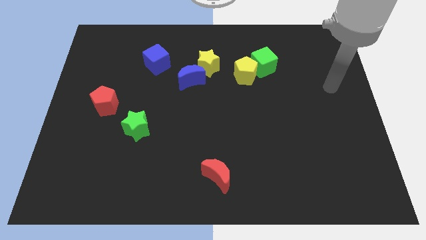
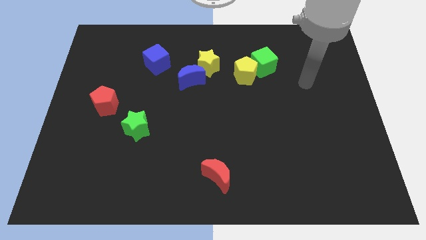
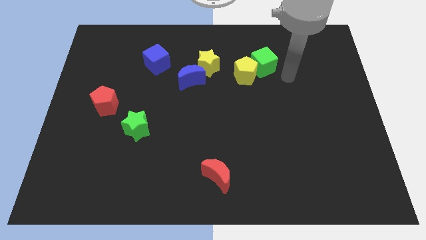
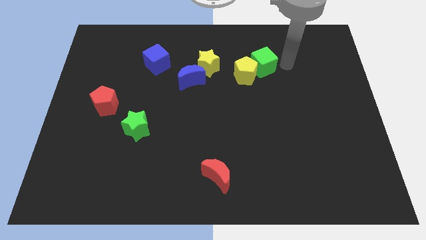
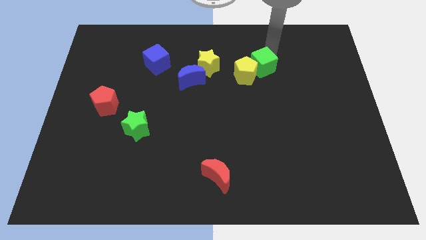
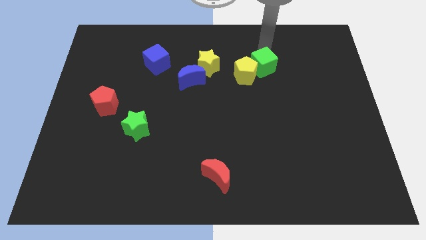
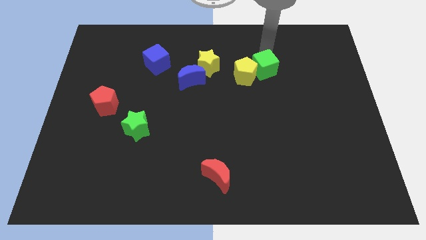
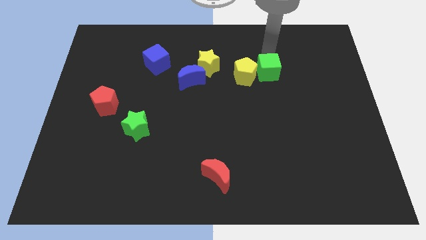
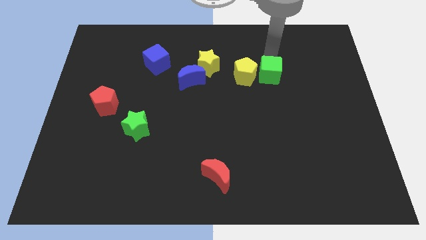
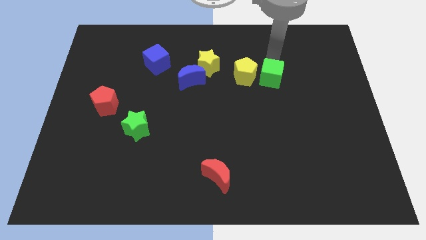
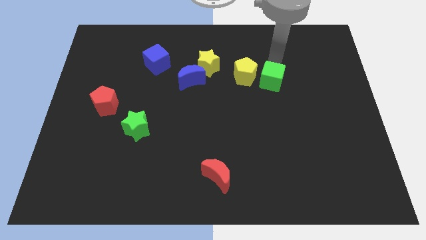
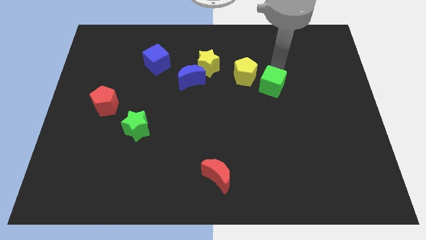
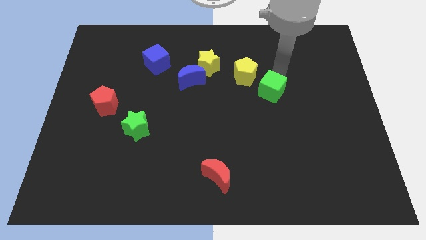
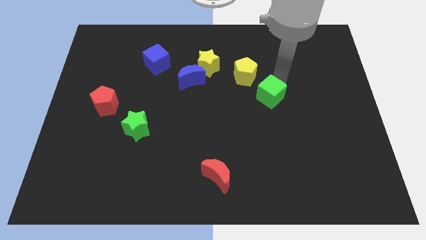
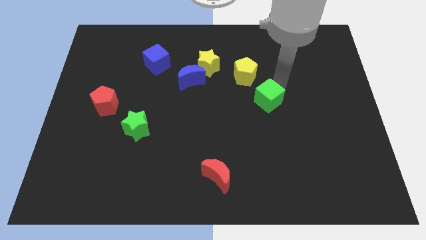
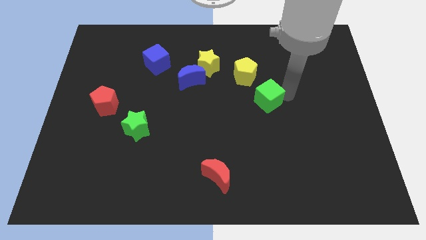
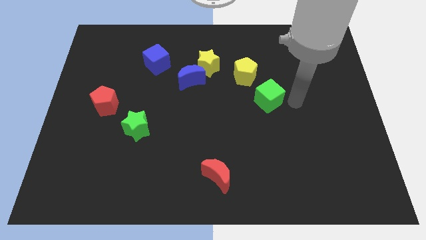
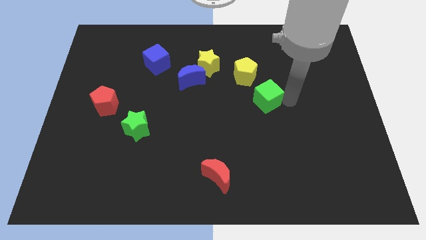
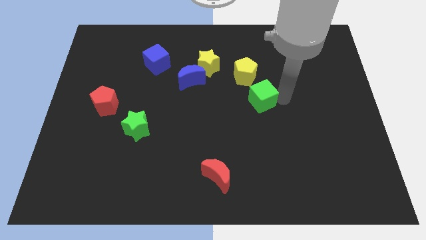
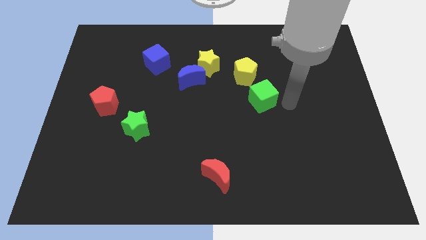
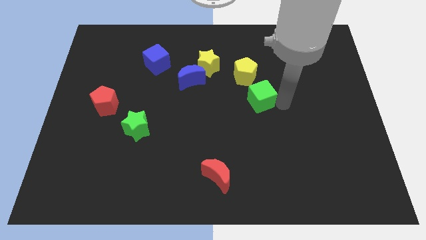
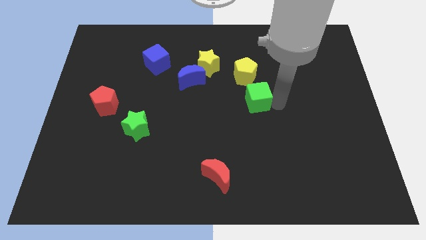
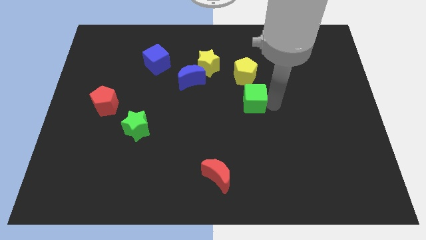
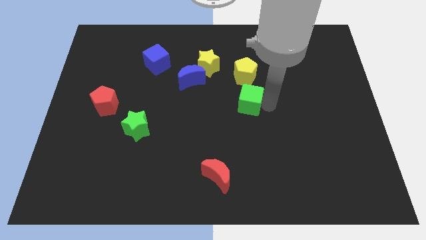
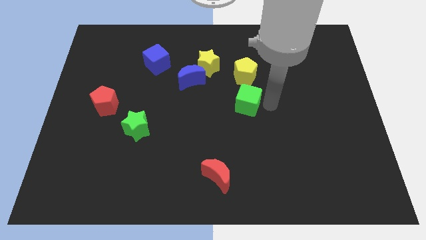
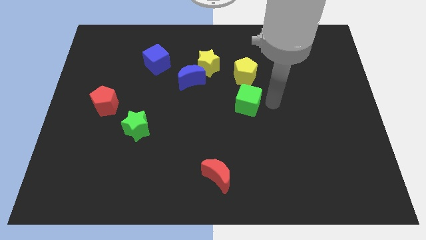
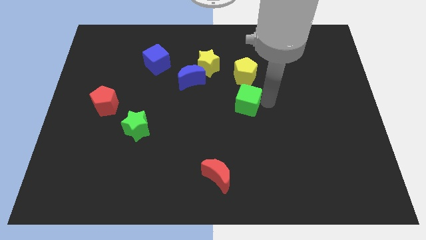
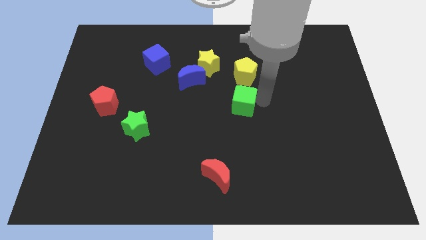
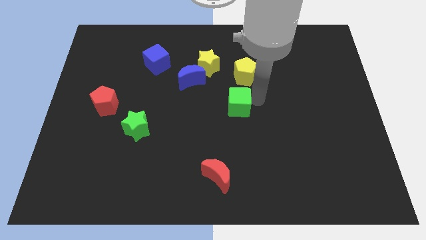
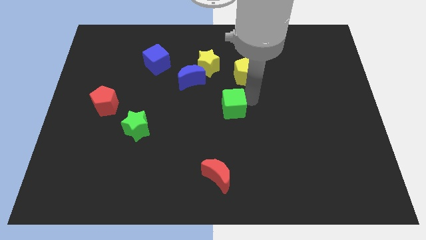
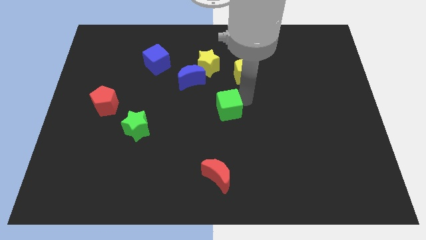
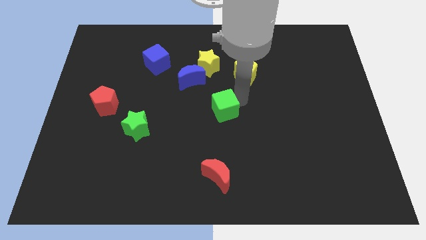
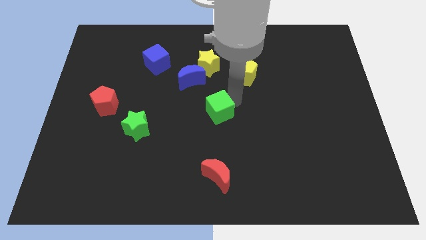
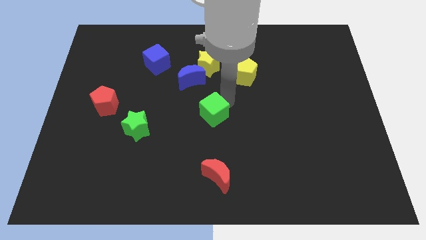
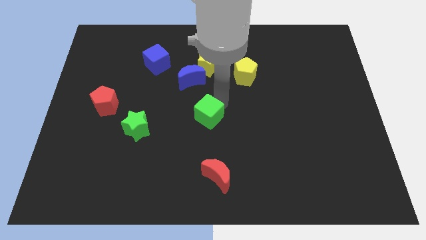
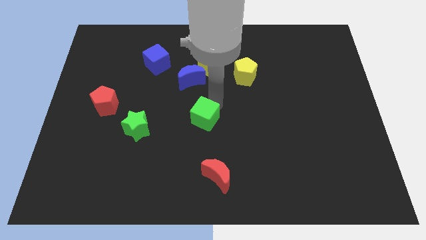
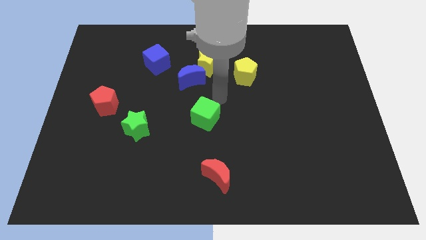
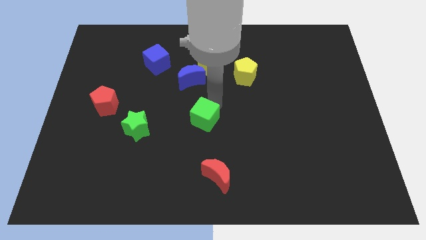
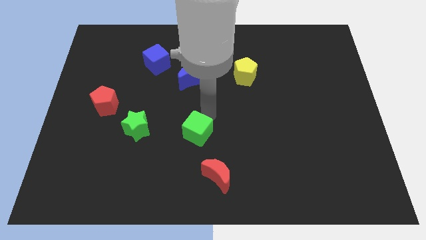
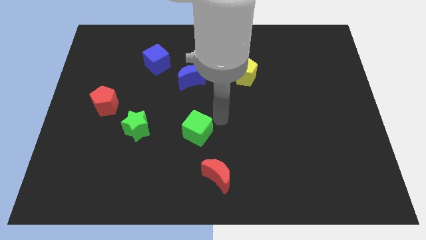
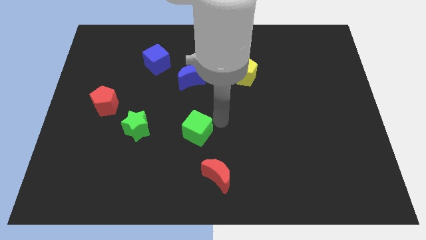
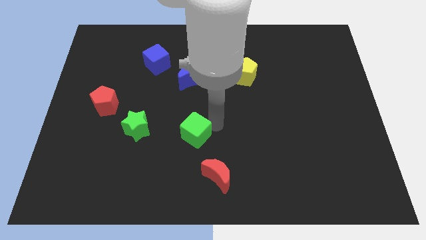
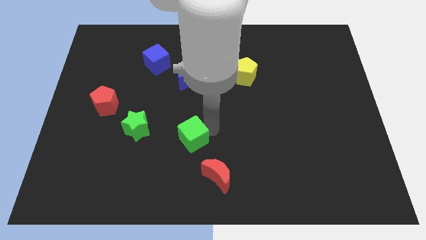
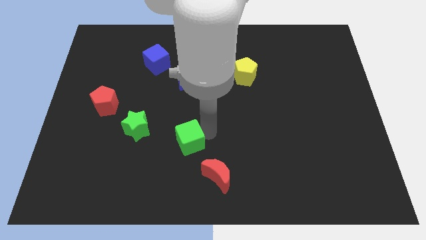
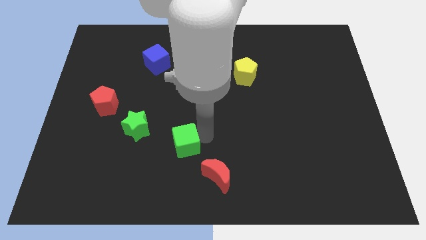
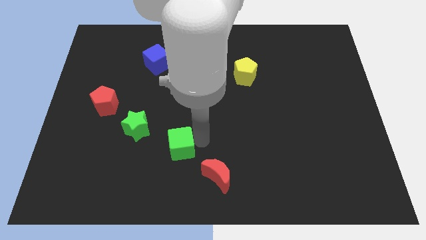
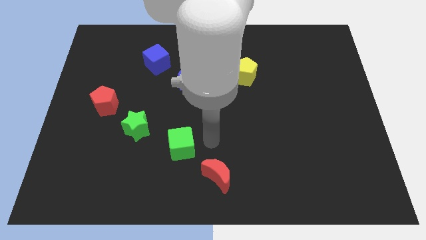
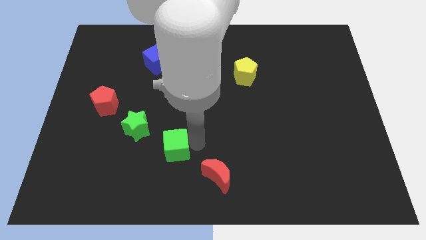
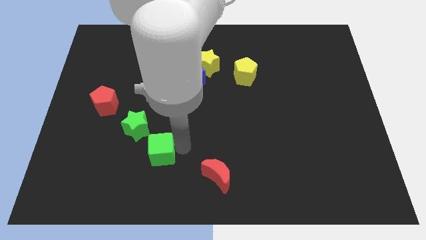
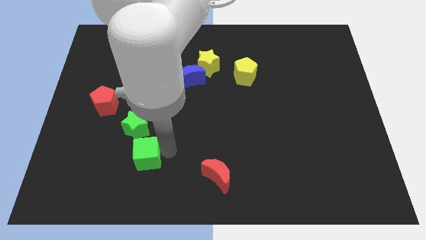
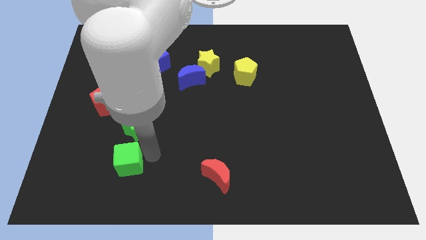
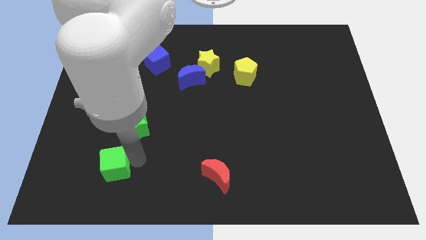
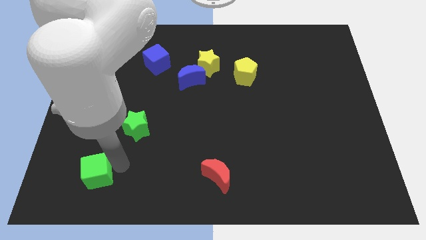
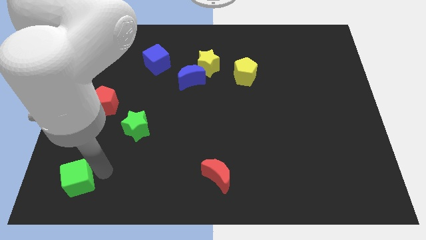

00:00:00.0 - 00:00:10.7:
move the green cube to the bottom left

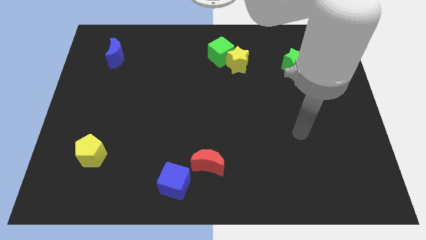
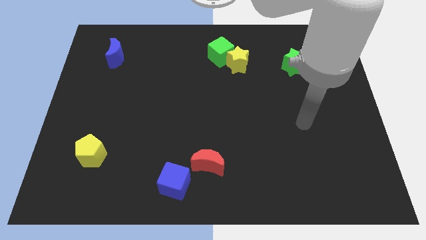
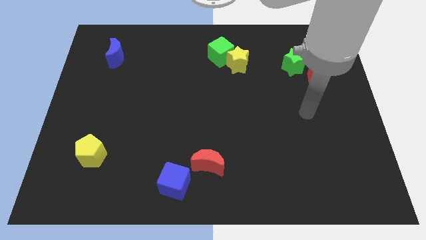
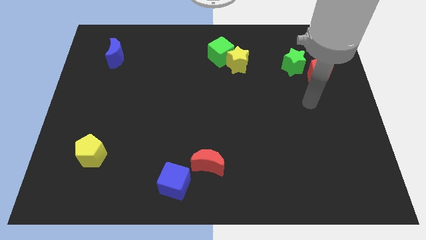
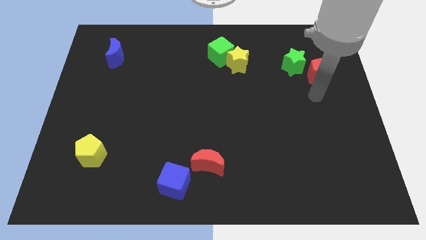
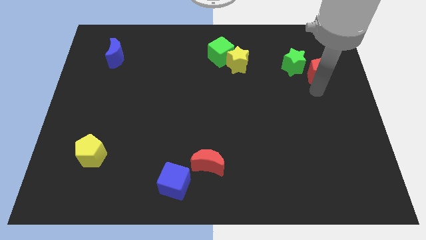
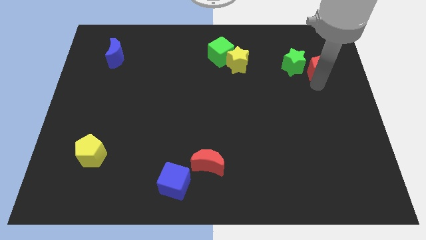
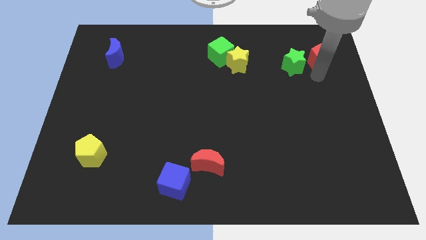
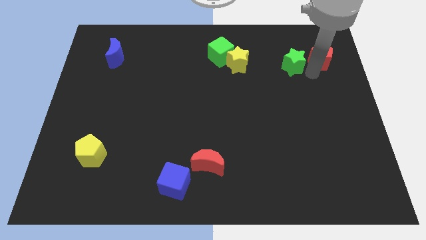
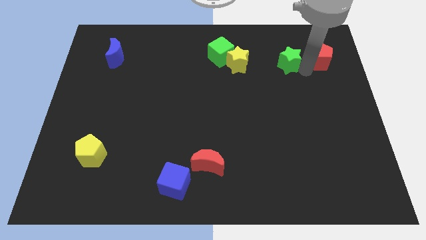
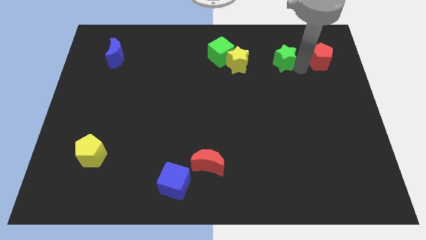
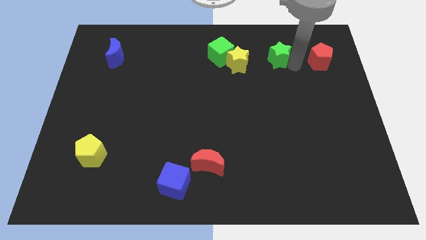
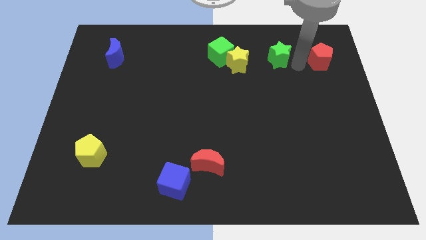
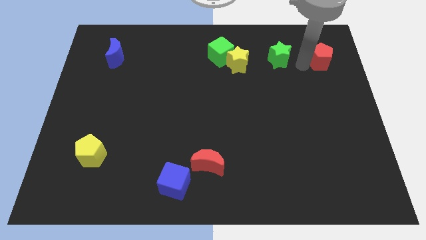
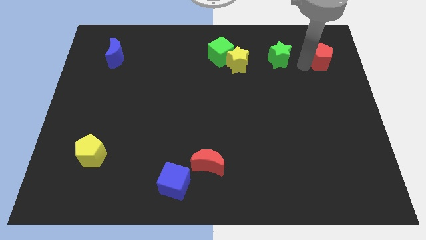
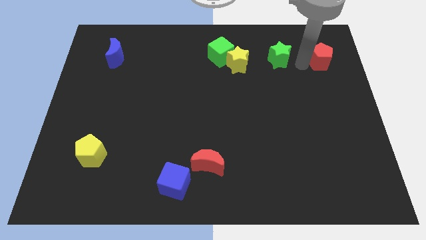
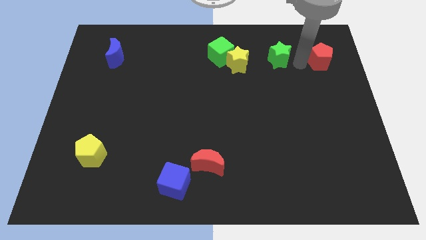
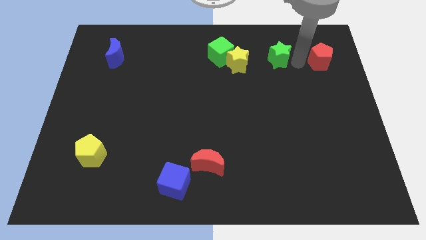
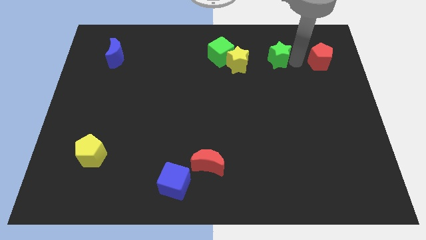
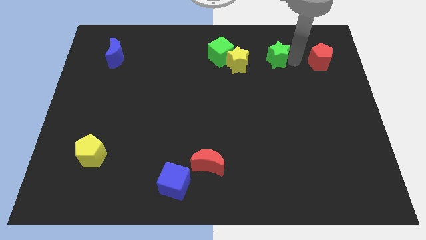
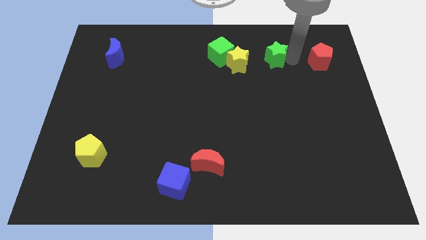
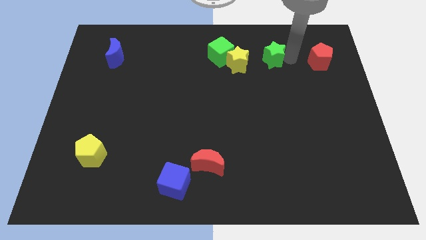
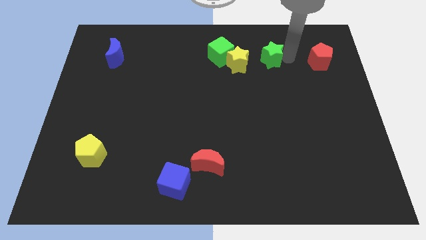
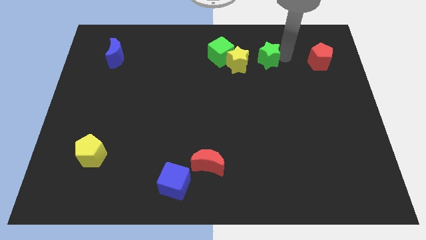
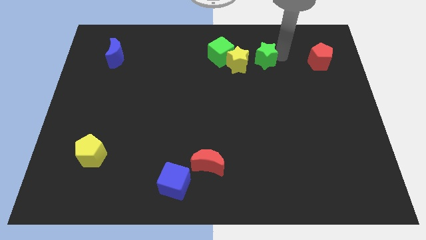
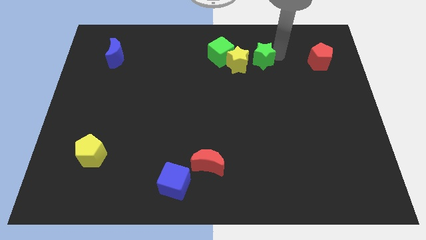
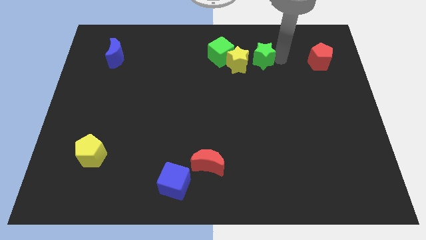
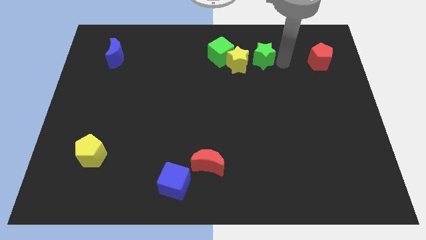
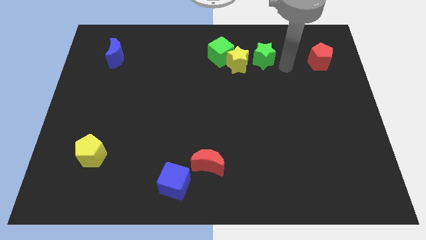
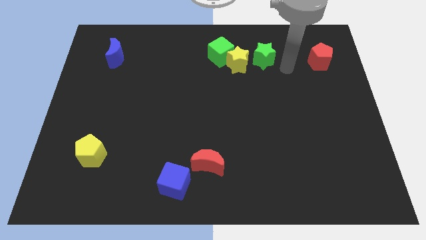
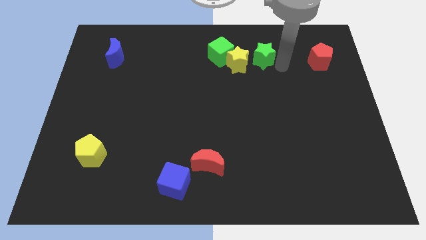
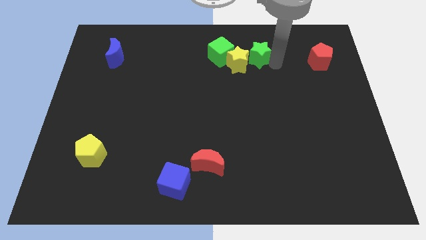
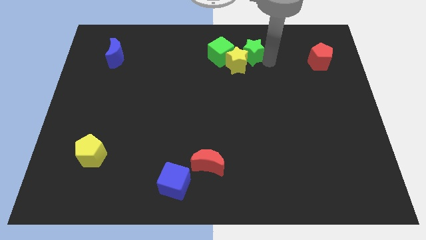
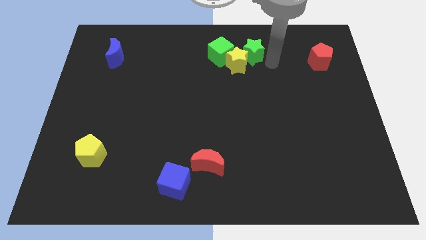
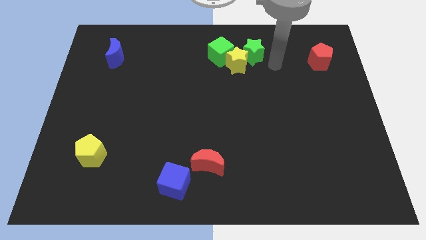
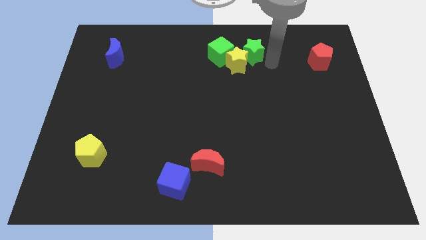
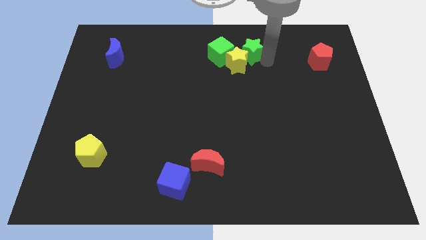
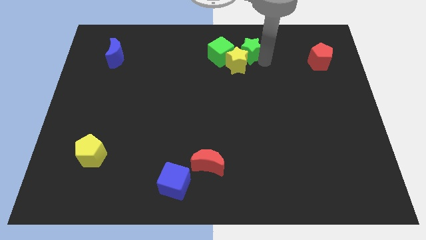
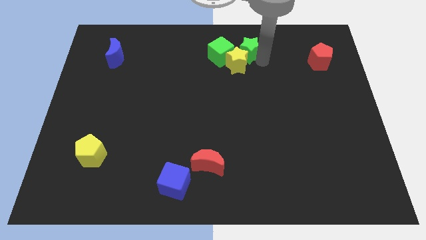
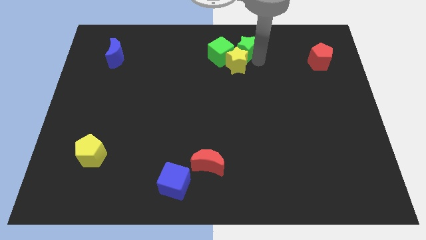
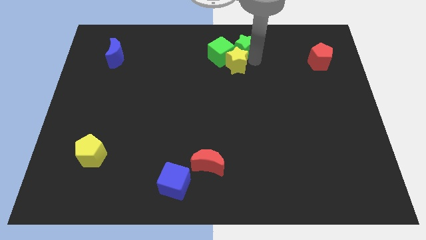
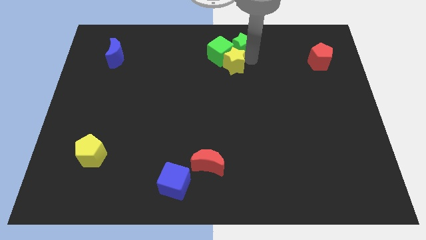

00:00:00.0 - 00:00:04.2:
move the green star to the top
